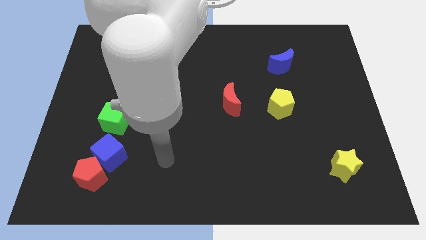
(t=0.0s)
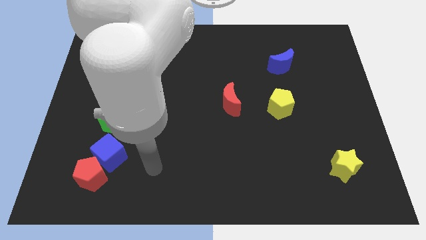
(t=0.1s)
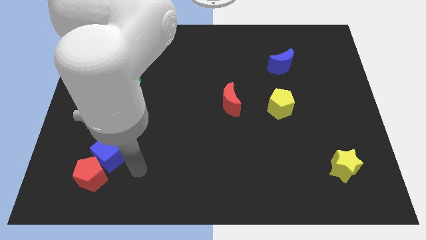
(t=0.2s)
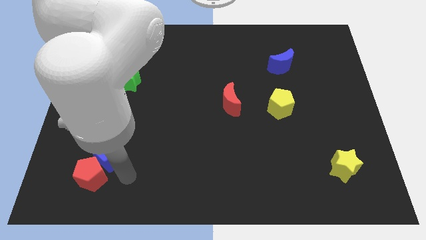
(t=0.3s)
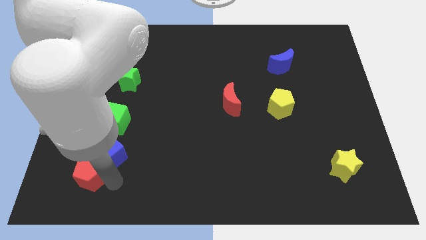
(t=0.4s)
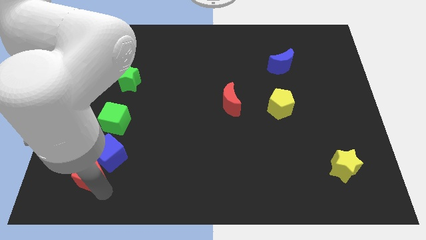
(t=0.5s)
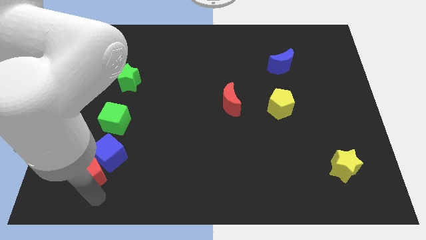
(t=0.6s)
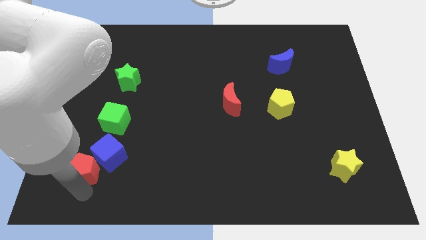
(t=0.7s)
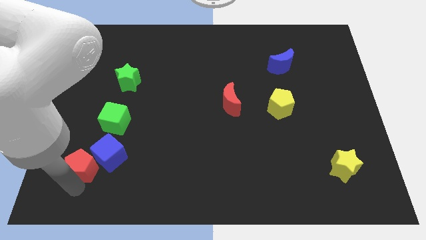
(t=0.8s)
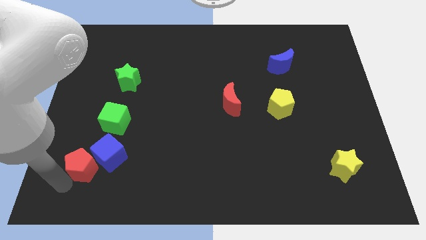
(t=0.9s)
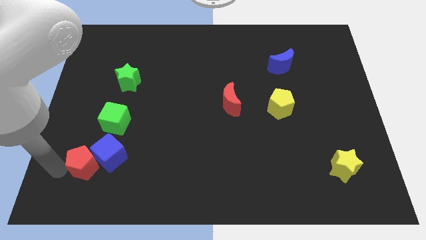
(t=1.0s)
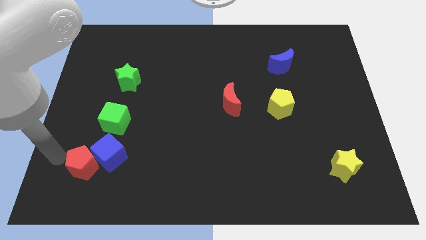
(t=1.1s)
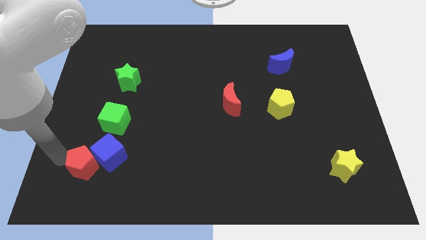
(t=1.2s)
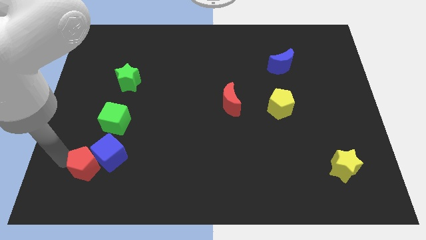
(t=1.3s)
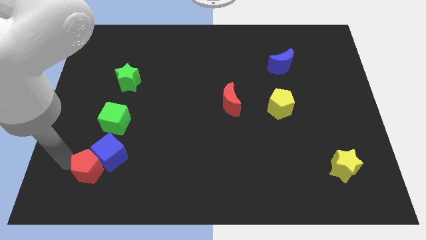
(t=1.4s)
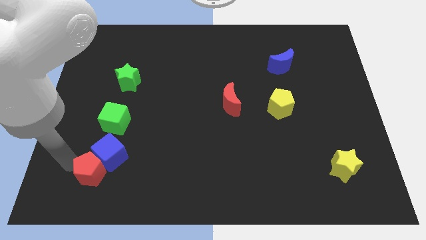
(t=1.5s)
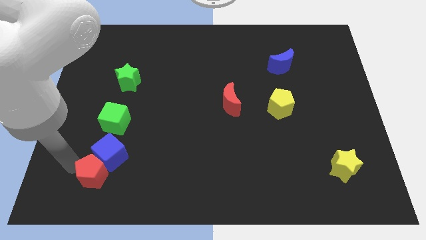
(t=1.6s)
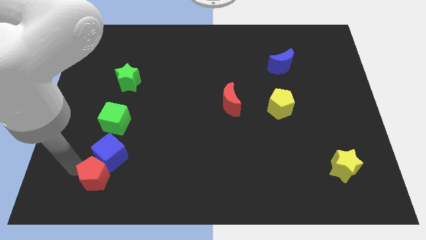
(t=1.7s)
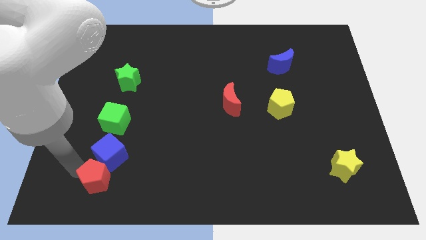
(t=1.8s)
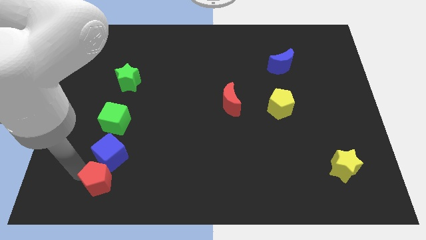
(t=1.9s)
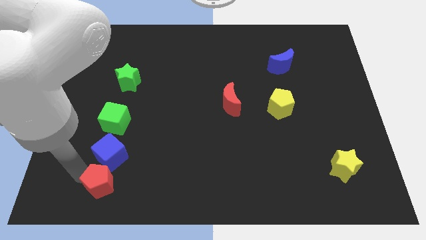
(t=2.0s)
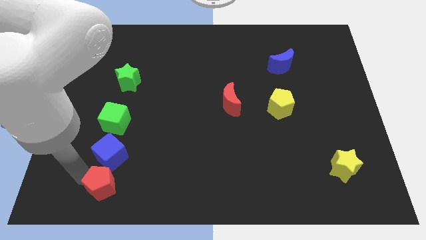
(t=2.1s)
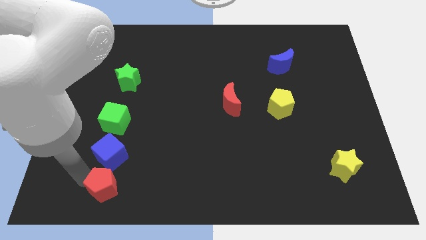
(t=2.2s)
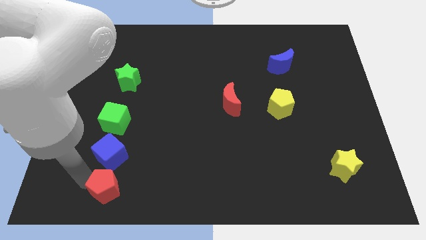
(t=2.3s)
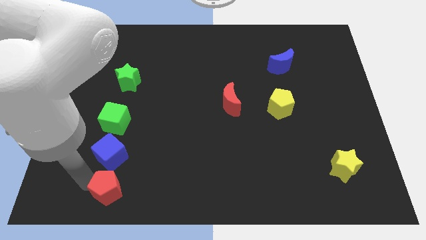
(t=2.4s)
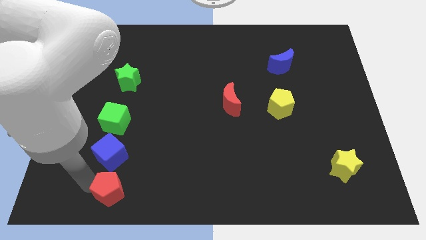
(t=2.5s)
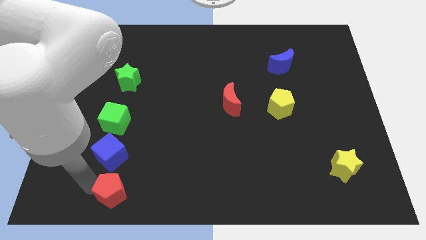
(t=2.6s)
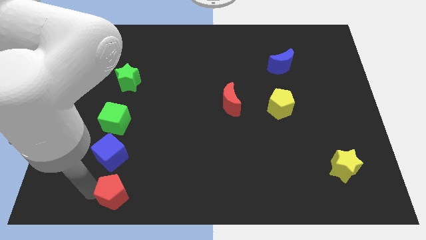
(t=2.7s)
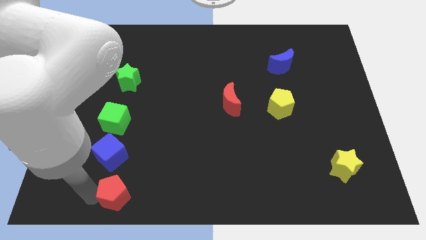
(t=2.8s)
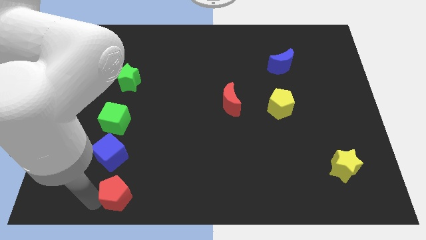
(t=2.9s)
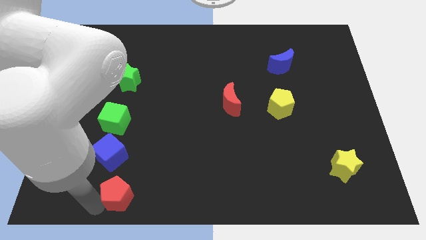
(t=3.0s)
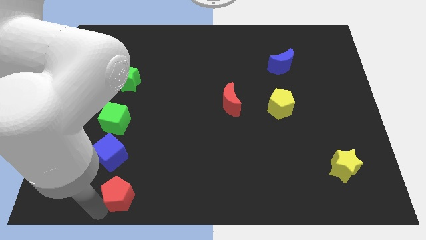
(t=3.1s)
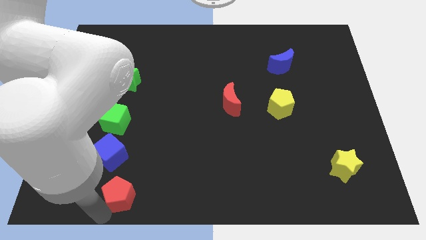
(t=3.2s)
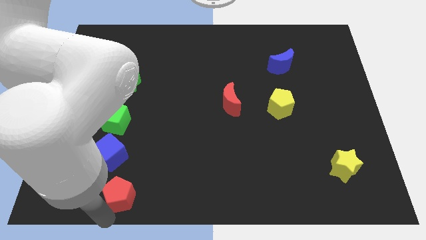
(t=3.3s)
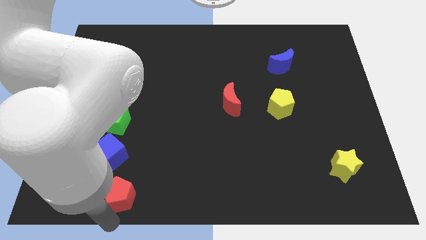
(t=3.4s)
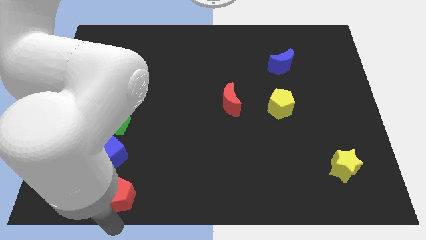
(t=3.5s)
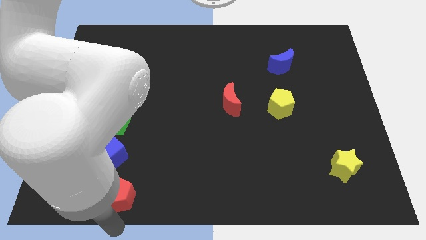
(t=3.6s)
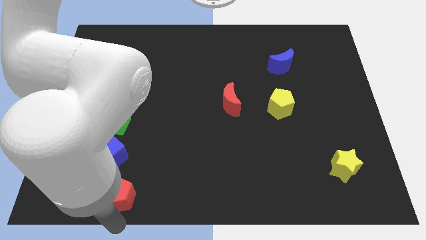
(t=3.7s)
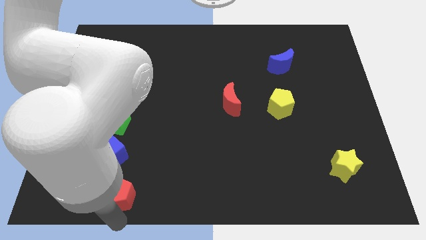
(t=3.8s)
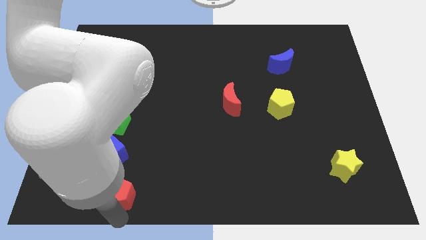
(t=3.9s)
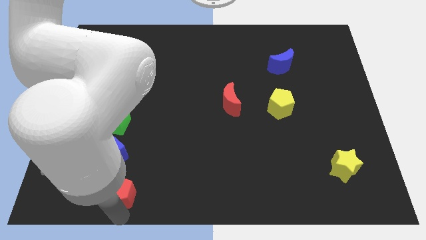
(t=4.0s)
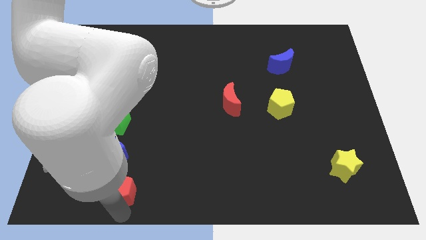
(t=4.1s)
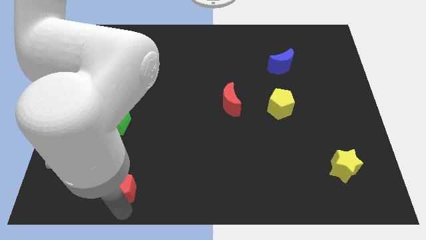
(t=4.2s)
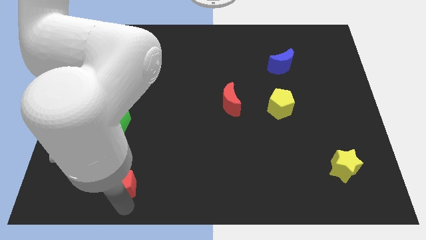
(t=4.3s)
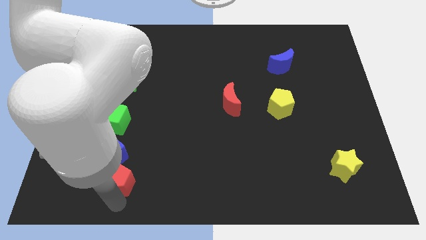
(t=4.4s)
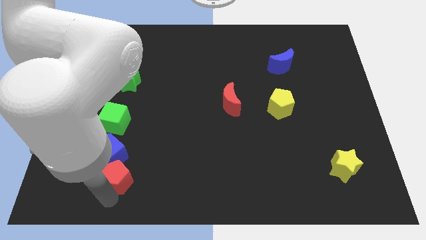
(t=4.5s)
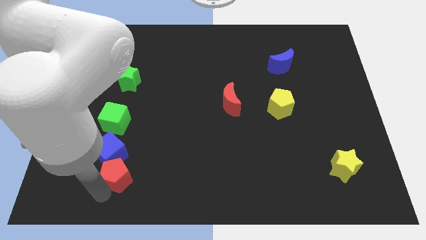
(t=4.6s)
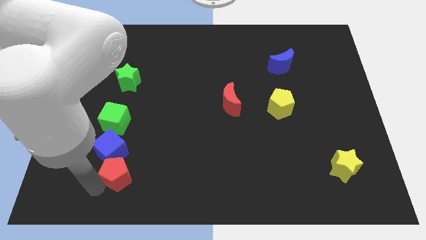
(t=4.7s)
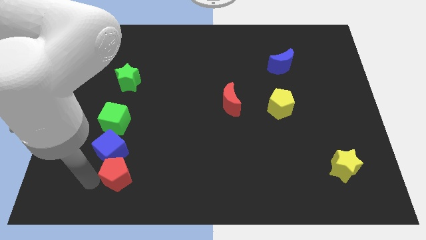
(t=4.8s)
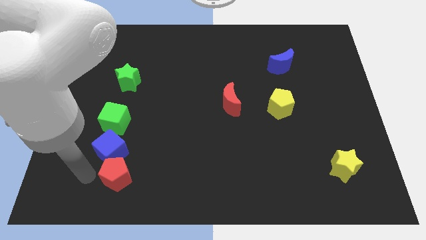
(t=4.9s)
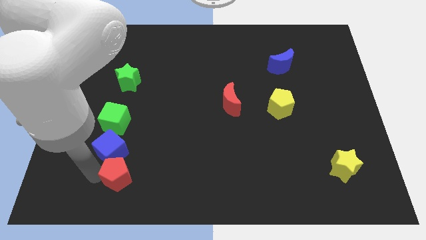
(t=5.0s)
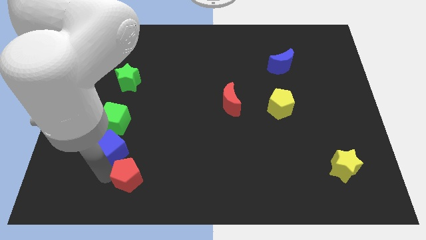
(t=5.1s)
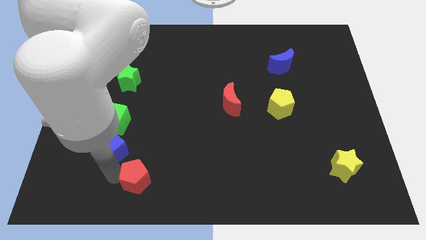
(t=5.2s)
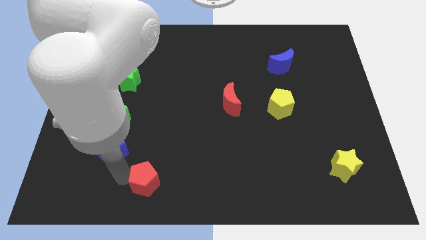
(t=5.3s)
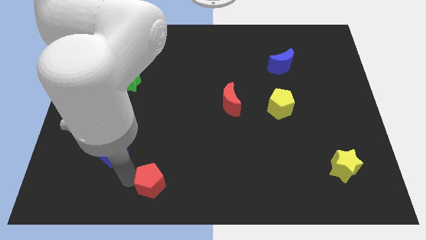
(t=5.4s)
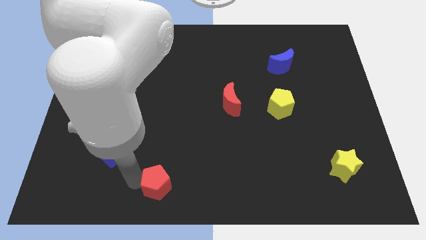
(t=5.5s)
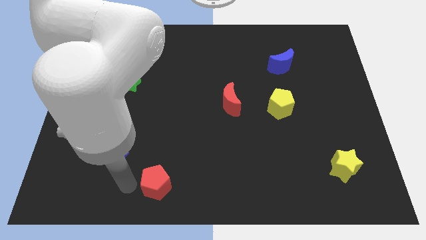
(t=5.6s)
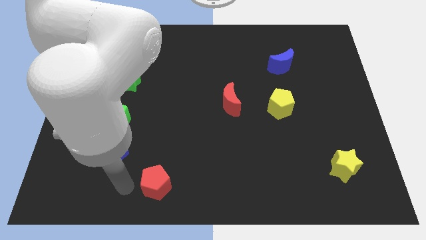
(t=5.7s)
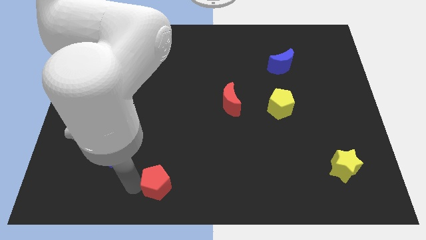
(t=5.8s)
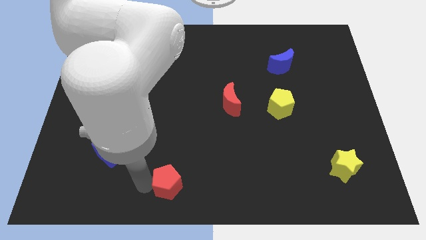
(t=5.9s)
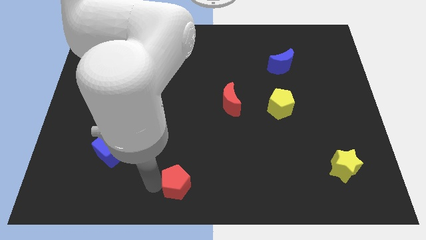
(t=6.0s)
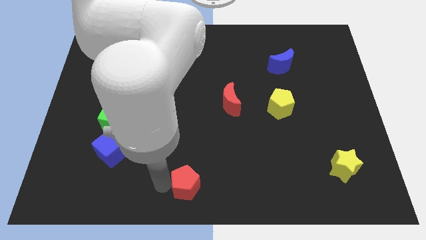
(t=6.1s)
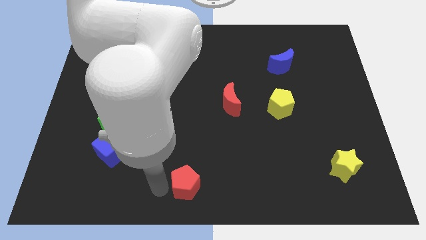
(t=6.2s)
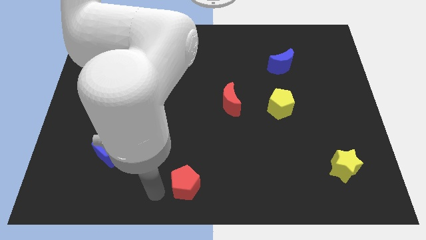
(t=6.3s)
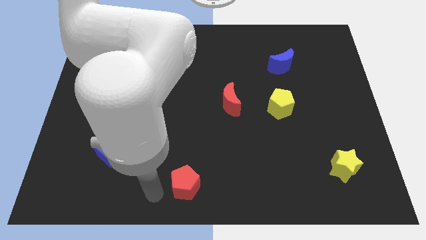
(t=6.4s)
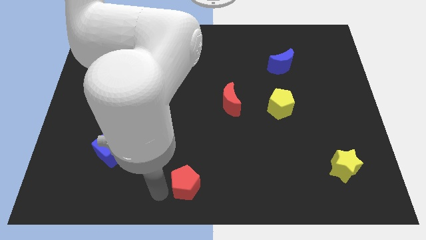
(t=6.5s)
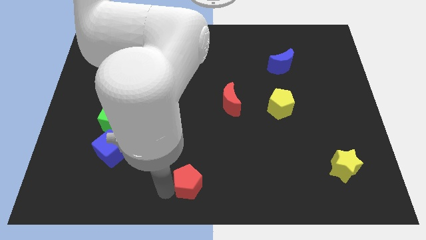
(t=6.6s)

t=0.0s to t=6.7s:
slide the red pentagon right

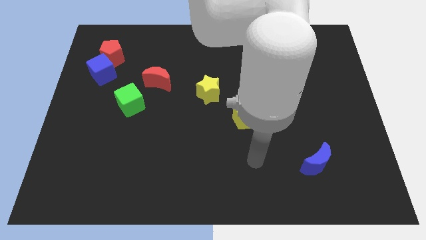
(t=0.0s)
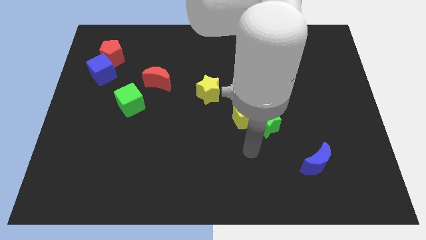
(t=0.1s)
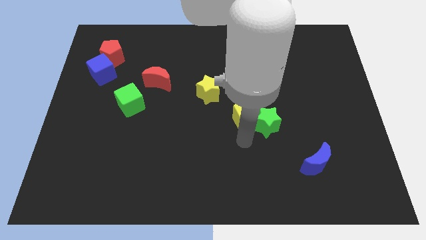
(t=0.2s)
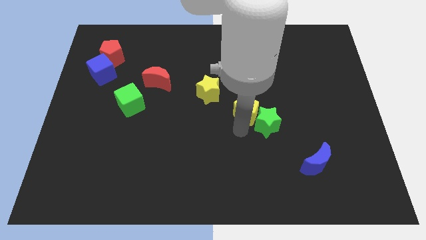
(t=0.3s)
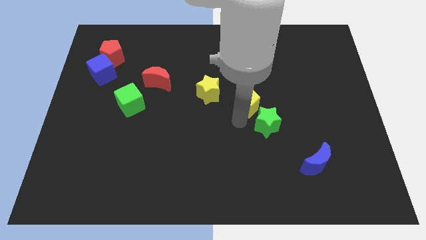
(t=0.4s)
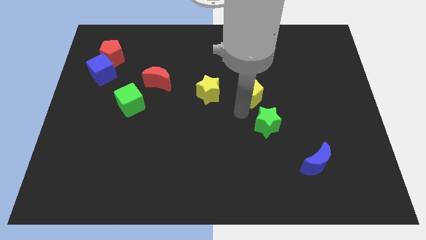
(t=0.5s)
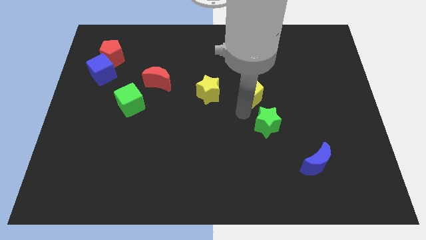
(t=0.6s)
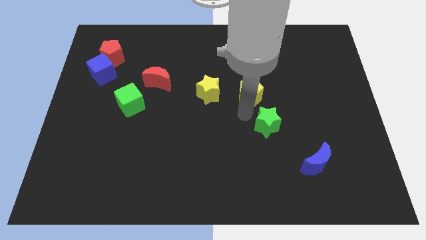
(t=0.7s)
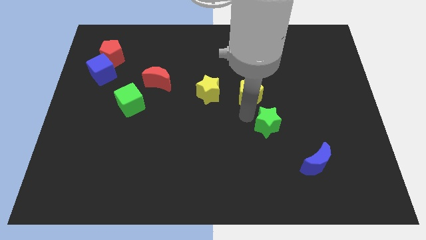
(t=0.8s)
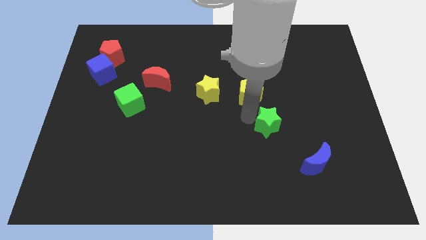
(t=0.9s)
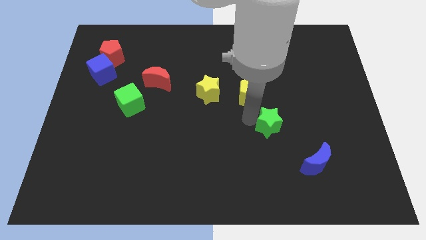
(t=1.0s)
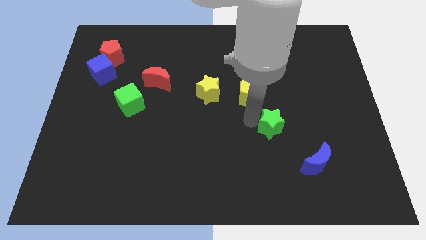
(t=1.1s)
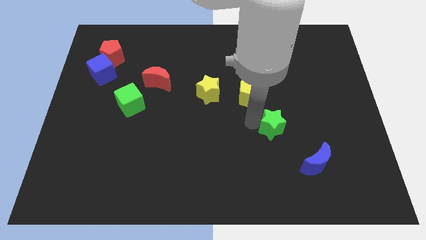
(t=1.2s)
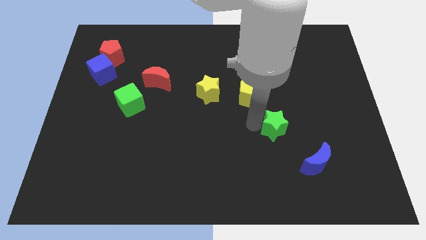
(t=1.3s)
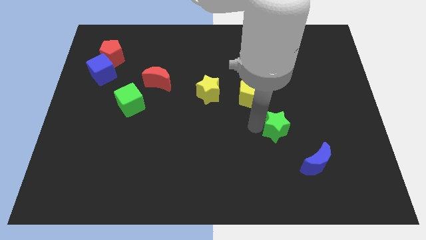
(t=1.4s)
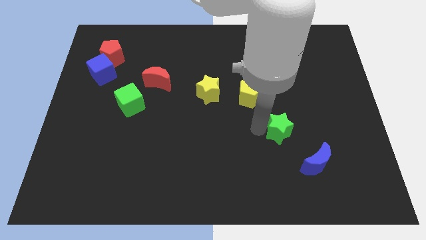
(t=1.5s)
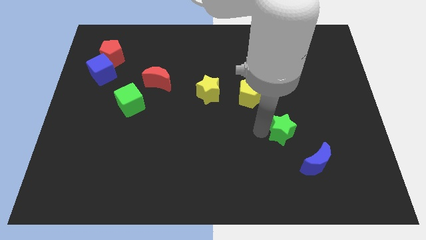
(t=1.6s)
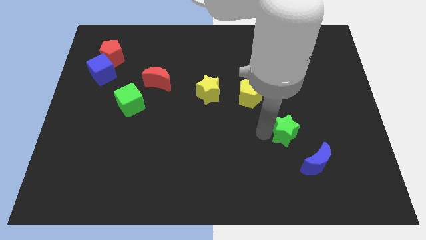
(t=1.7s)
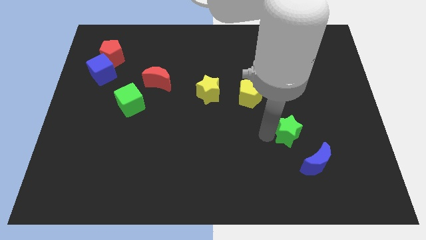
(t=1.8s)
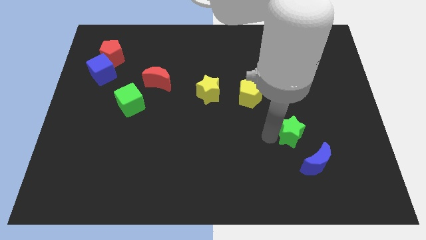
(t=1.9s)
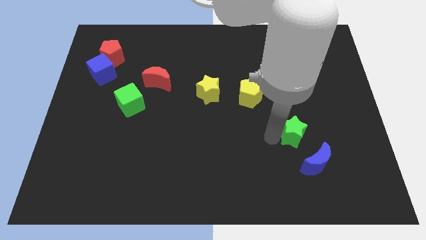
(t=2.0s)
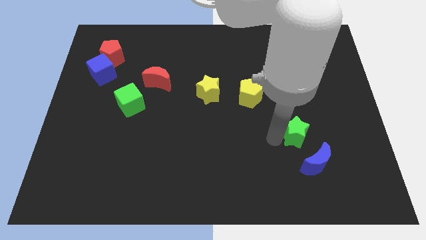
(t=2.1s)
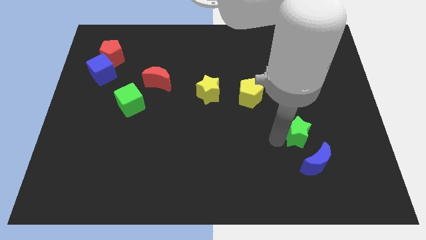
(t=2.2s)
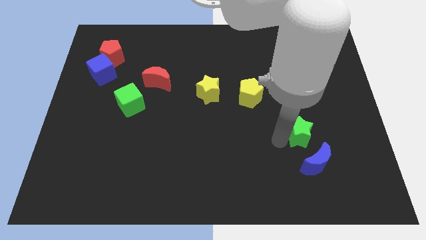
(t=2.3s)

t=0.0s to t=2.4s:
slide the green star downwards and right slightly
